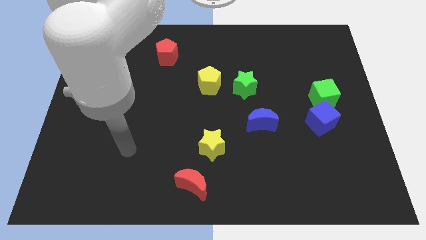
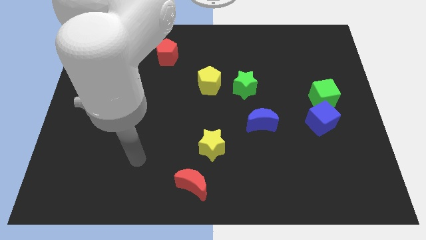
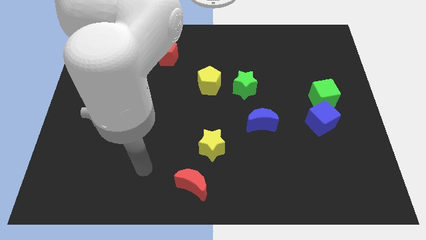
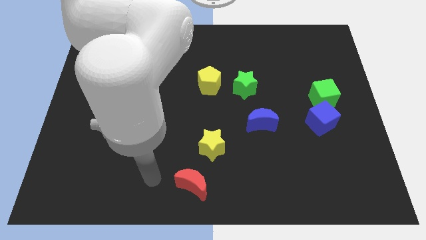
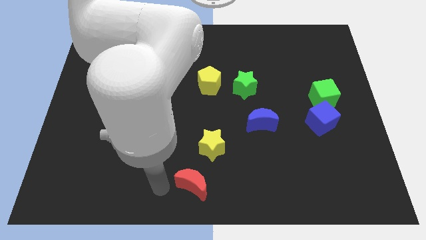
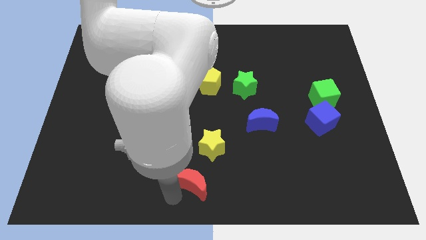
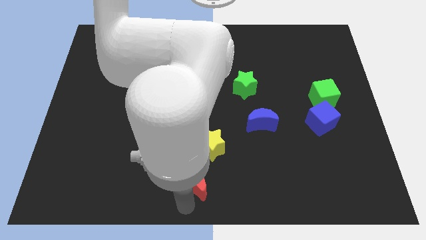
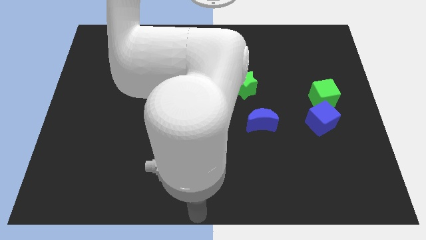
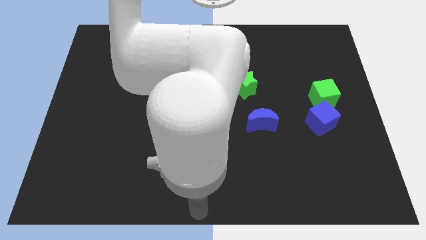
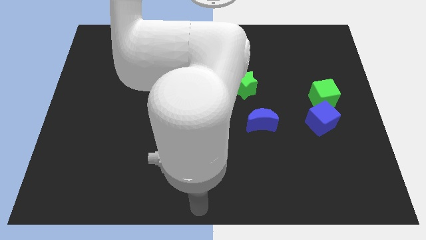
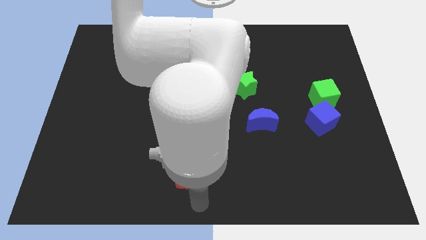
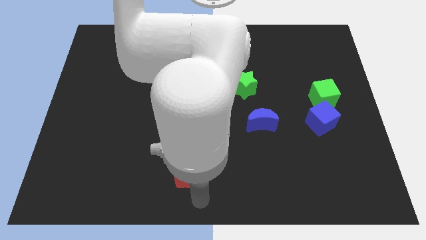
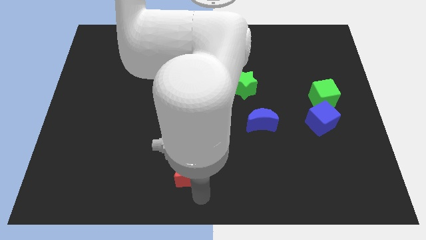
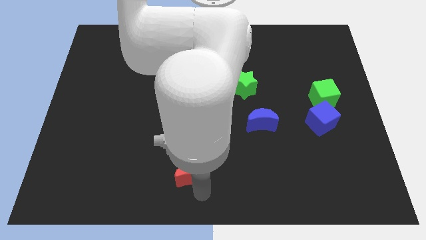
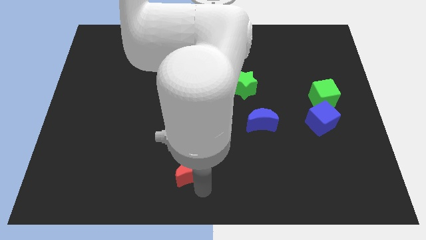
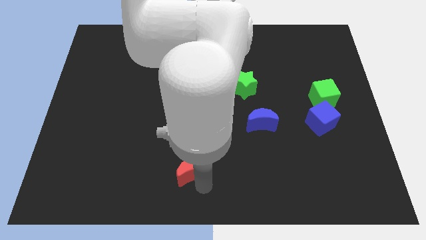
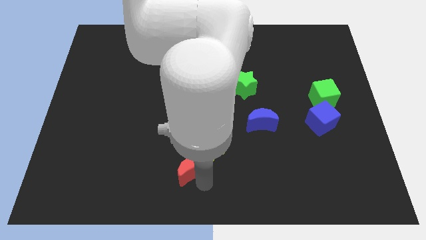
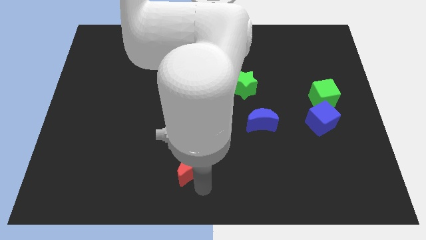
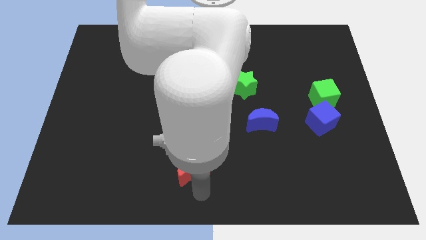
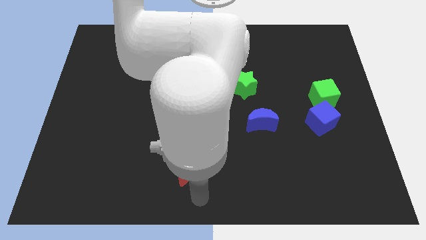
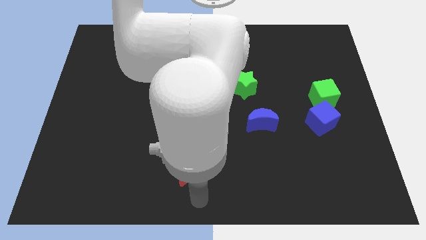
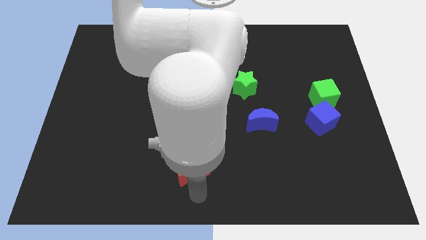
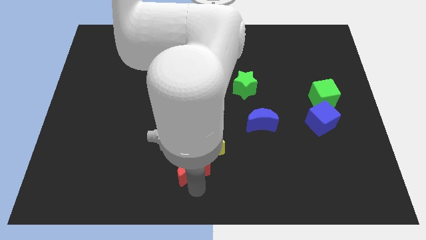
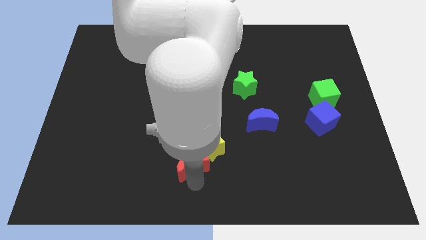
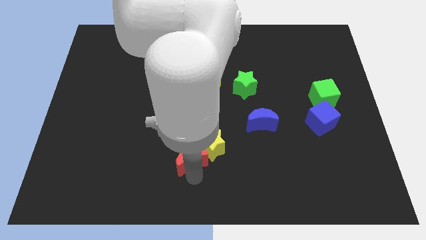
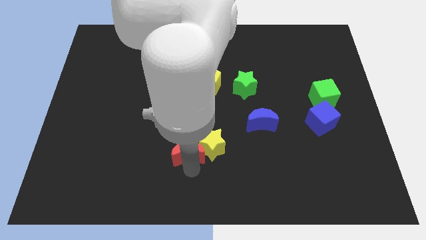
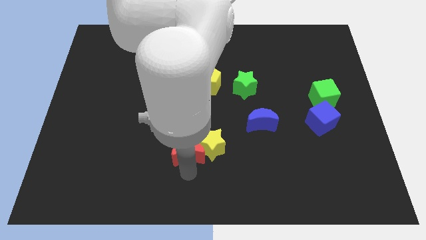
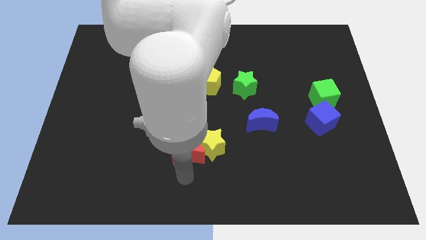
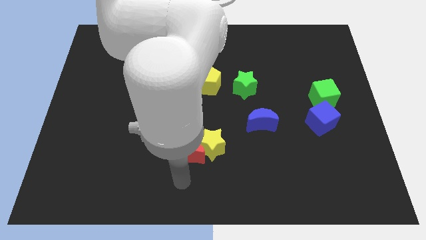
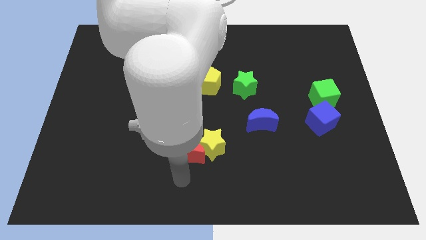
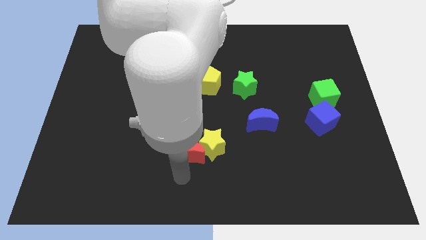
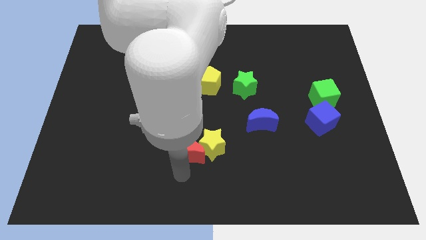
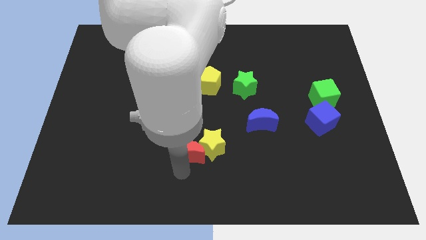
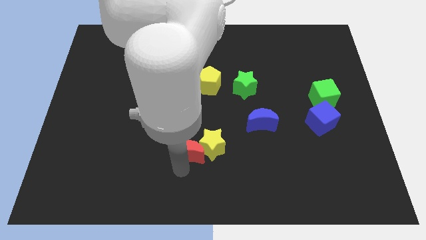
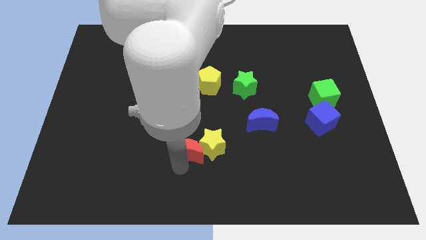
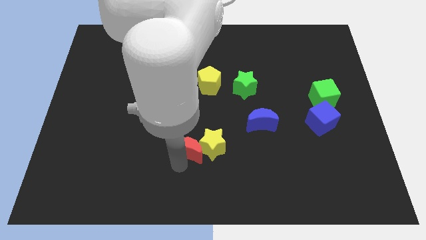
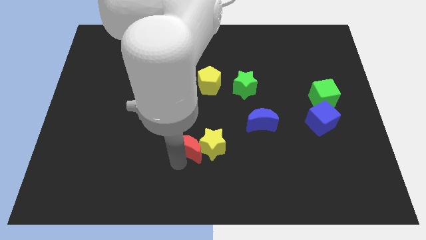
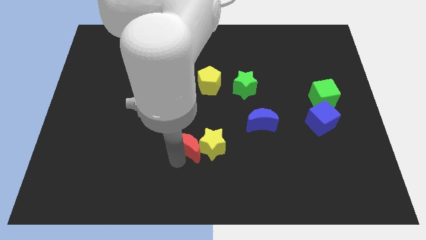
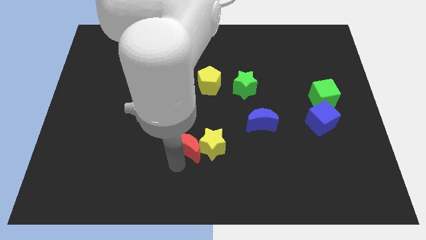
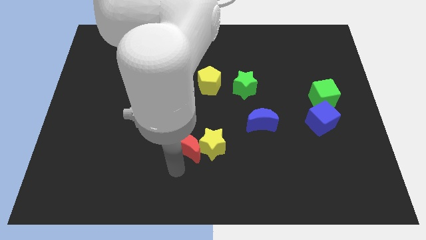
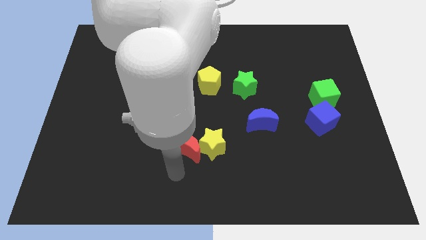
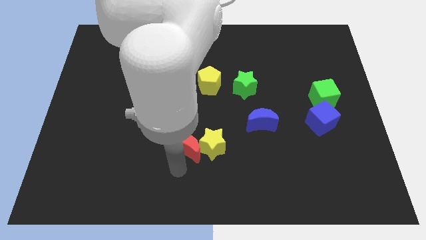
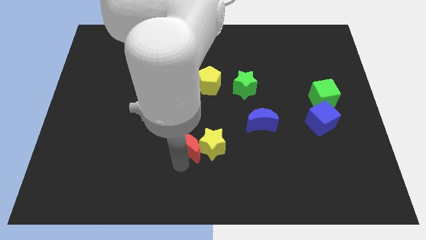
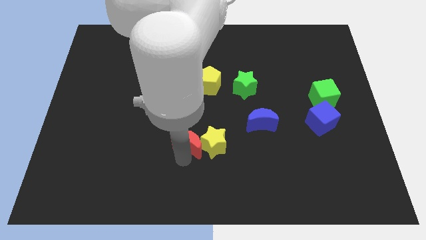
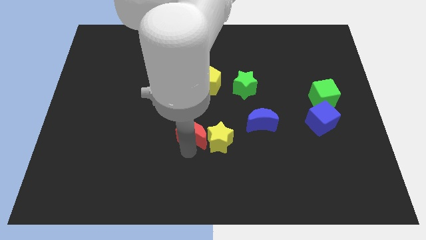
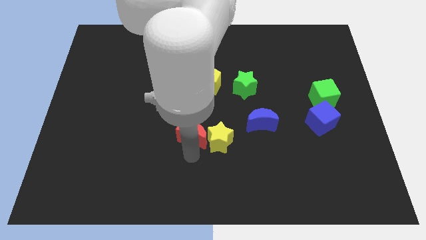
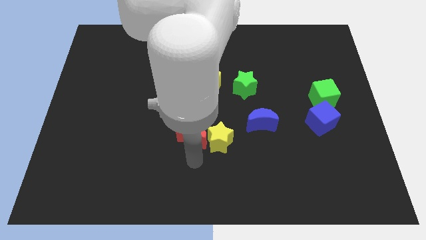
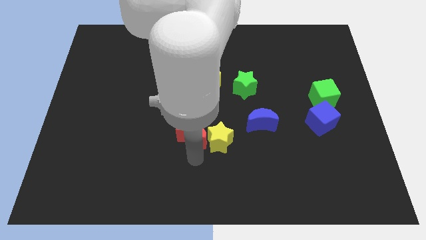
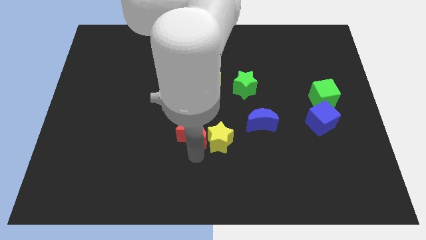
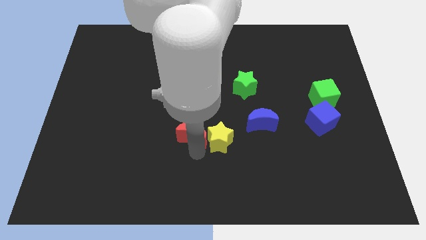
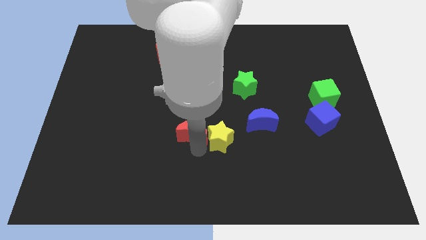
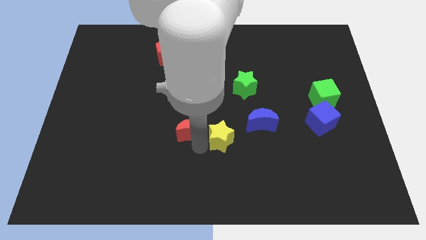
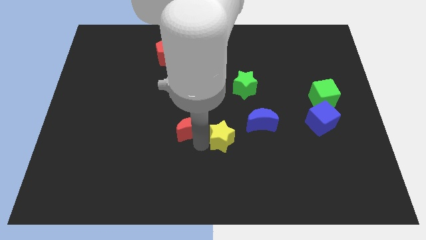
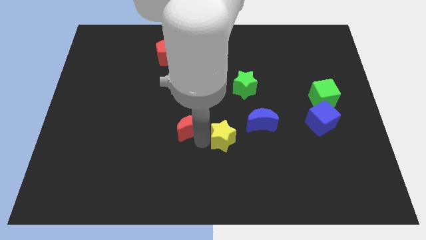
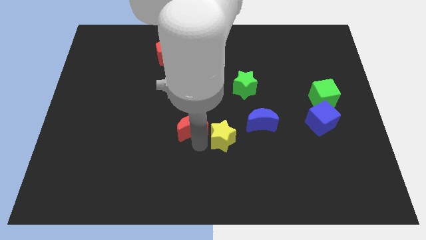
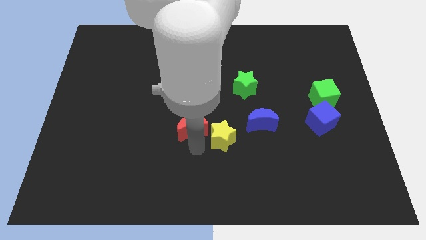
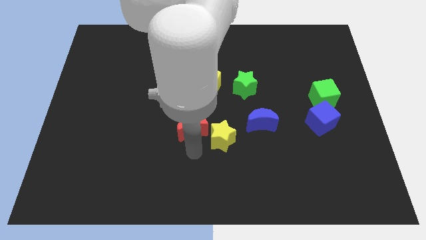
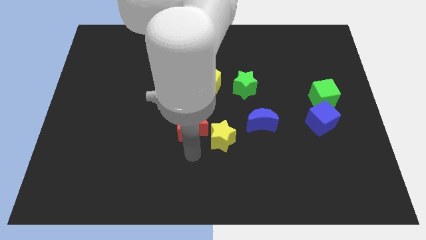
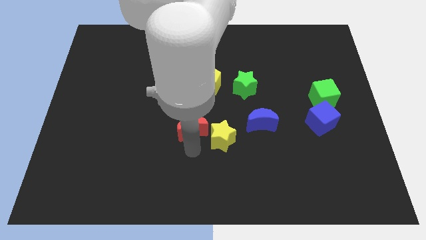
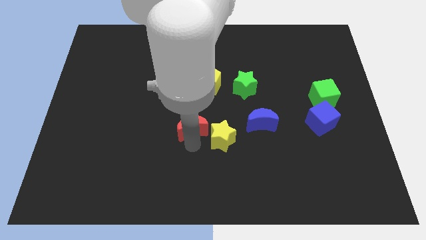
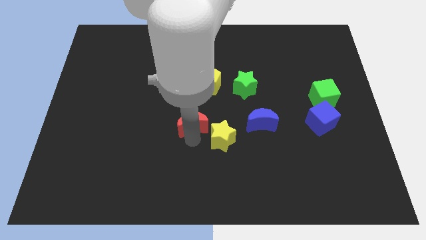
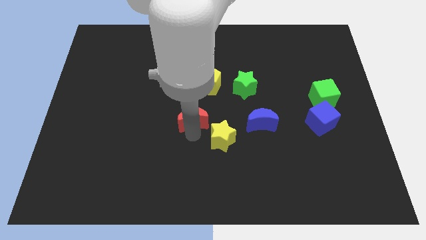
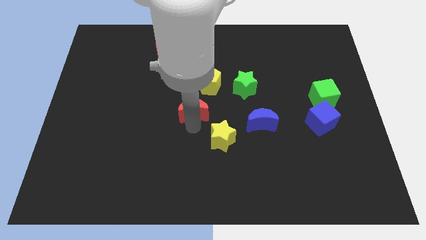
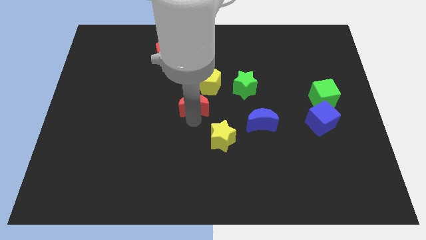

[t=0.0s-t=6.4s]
push the red moon up

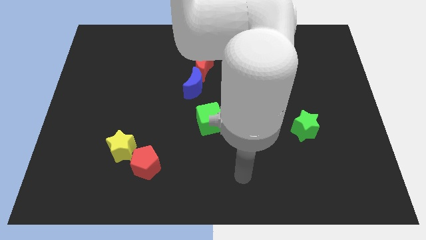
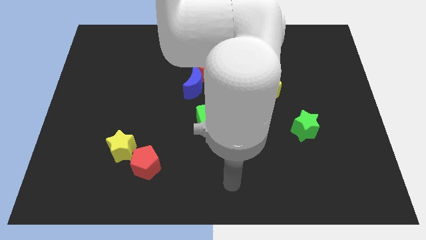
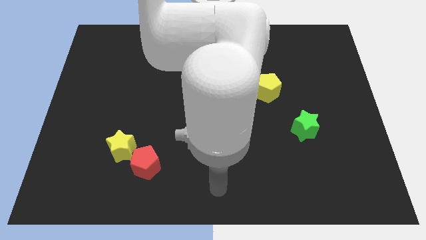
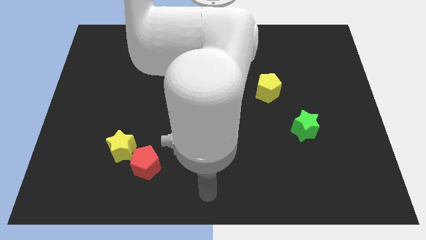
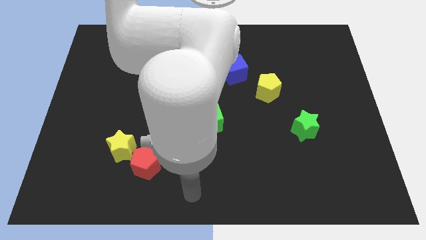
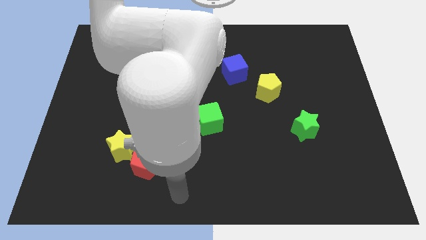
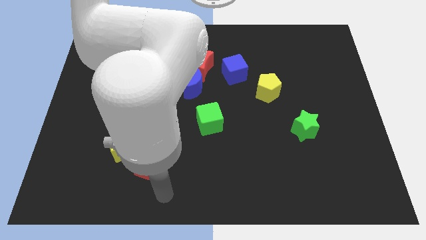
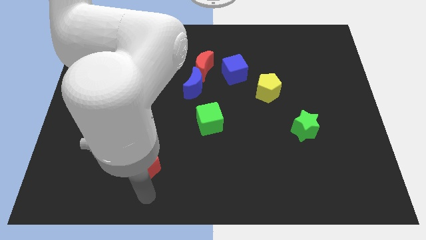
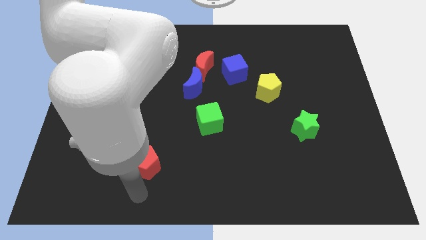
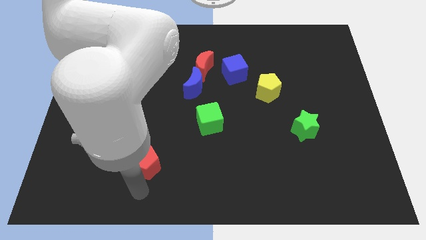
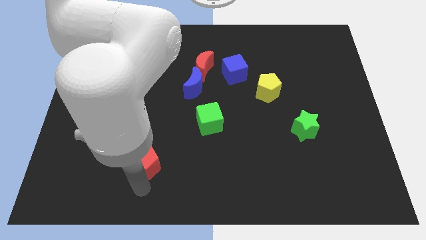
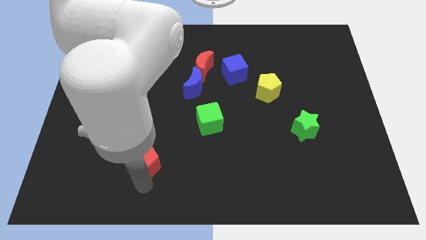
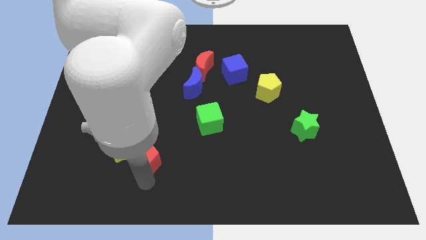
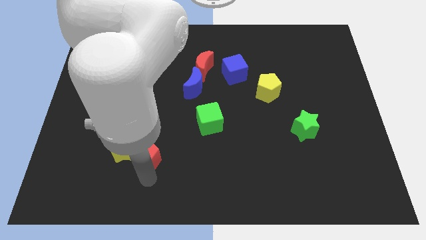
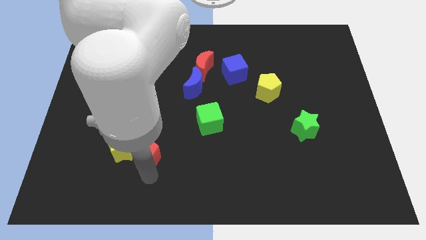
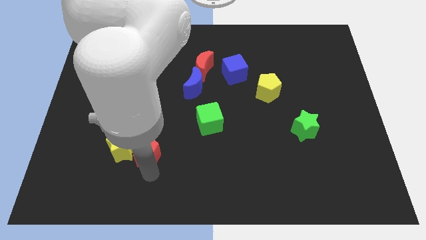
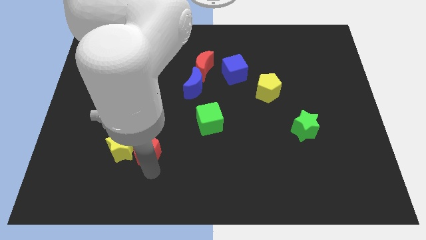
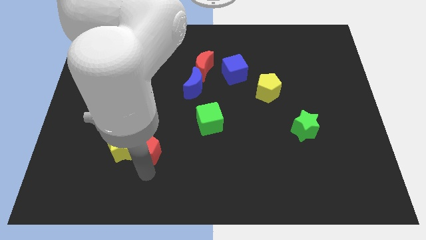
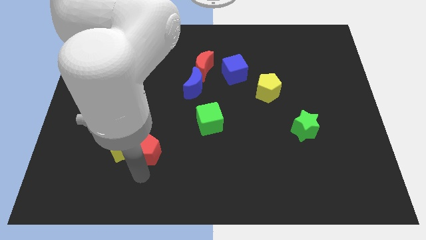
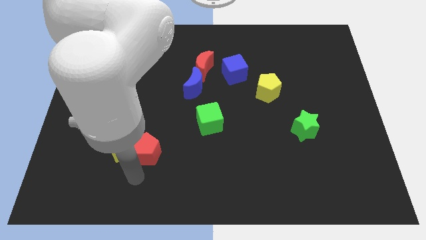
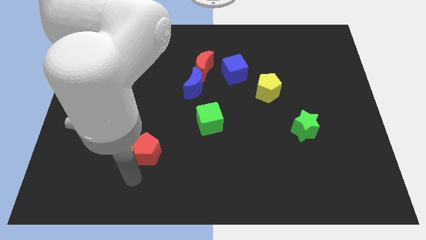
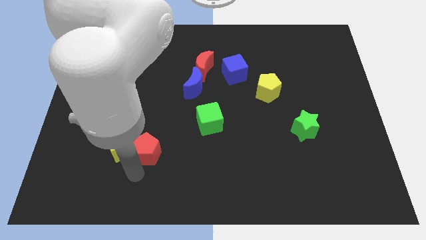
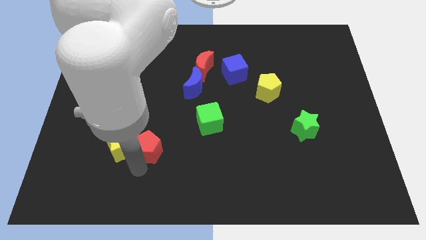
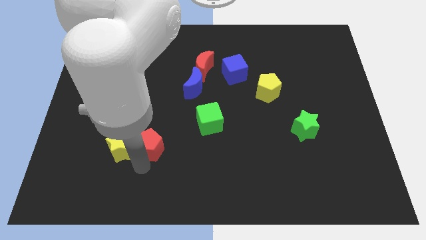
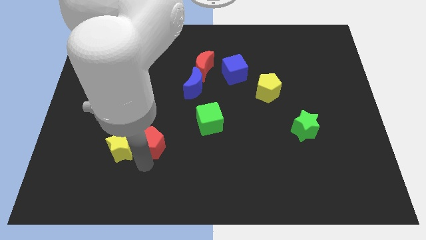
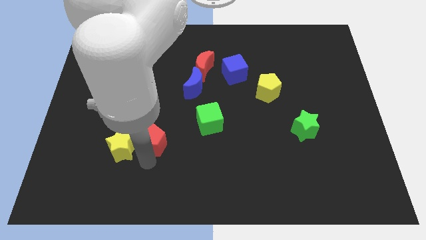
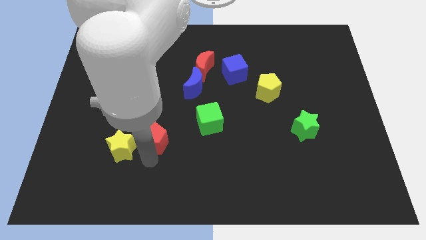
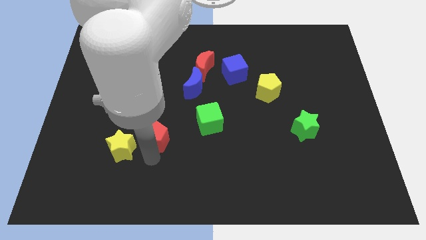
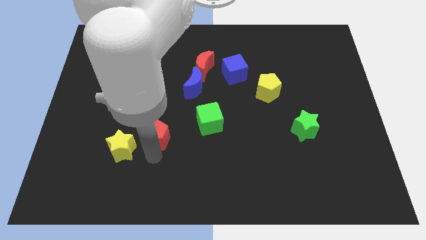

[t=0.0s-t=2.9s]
slide the red pentagon upwards a bit
